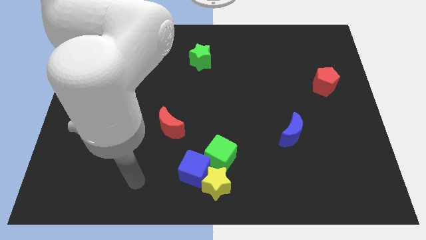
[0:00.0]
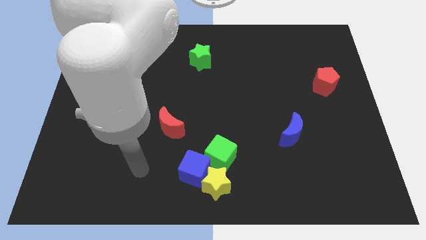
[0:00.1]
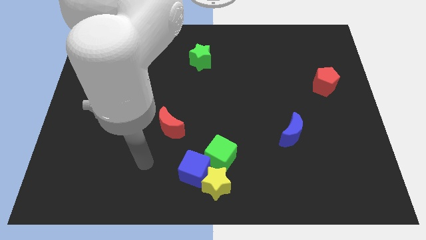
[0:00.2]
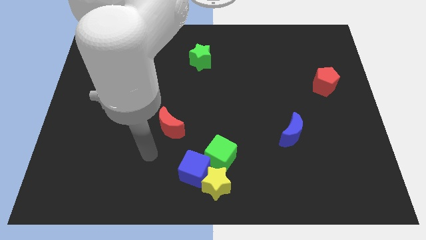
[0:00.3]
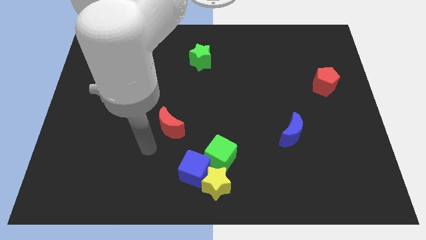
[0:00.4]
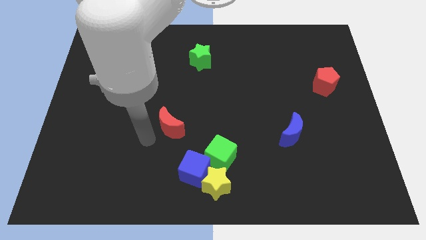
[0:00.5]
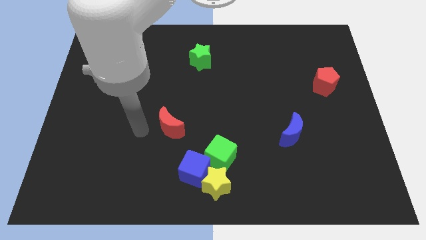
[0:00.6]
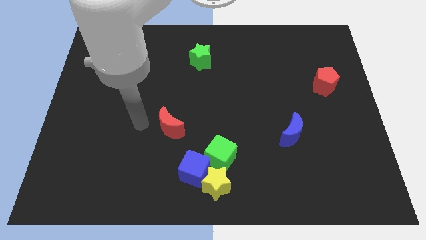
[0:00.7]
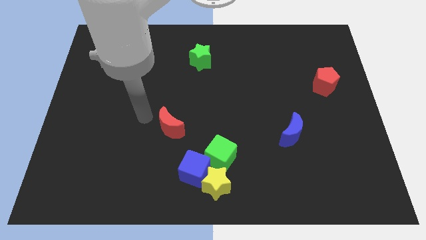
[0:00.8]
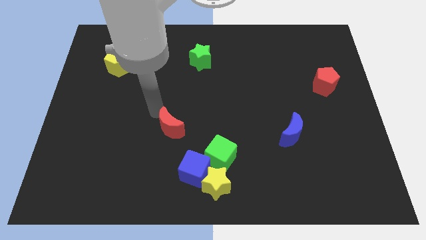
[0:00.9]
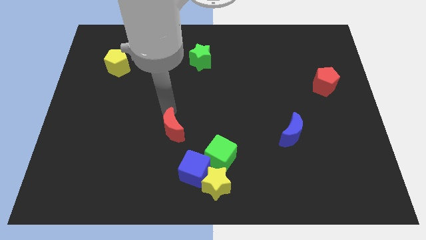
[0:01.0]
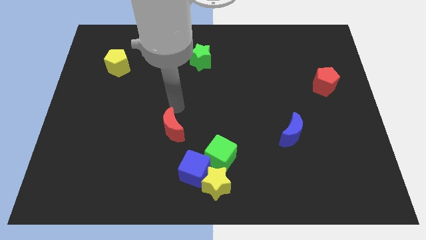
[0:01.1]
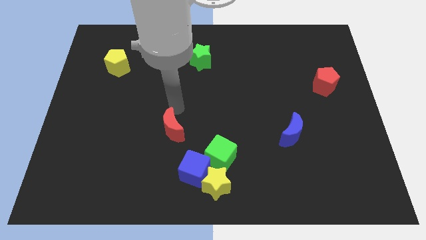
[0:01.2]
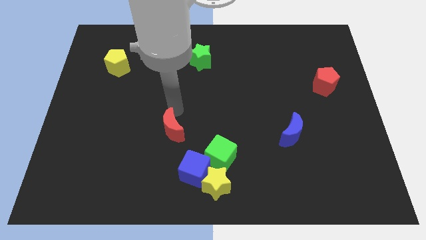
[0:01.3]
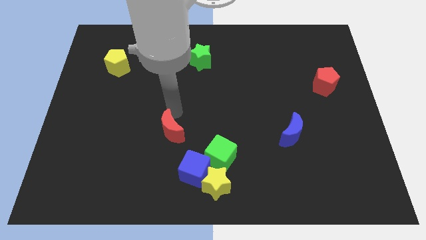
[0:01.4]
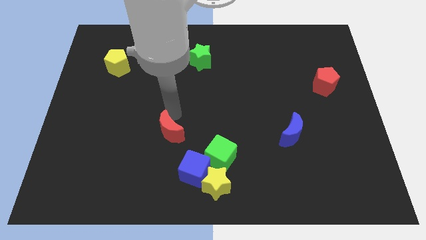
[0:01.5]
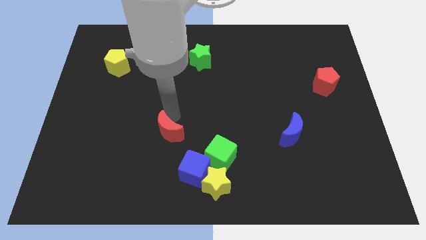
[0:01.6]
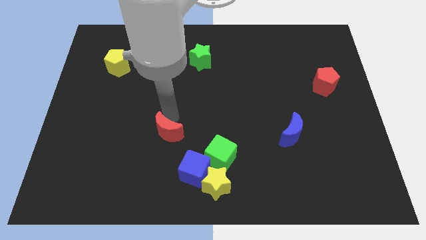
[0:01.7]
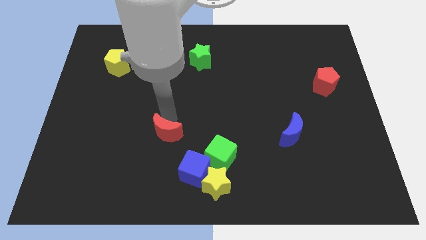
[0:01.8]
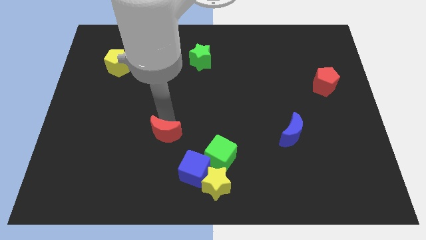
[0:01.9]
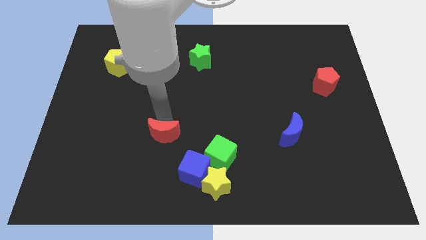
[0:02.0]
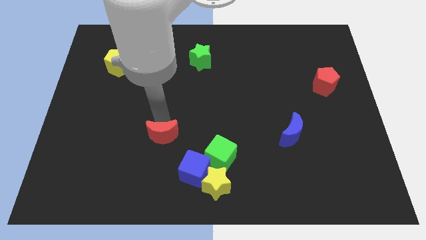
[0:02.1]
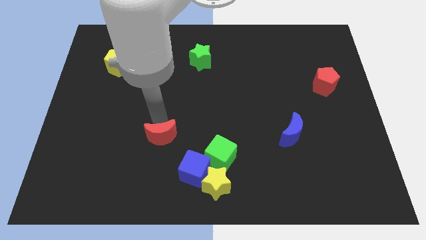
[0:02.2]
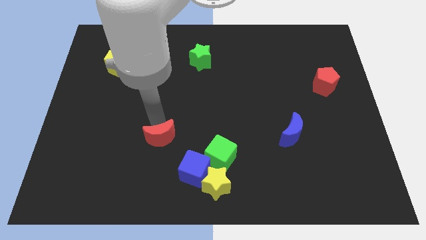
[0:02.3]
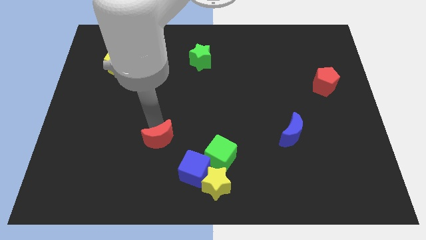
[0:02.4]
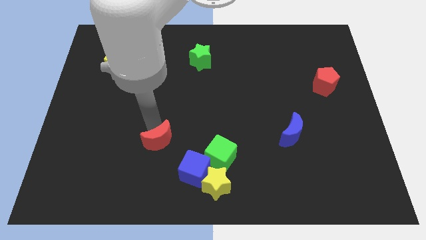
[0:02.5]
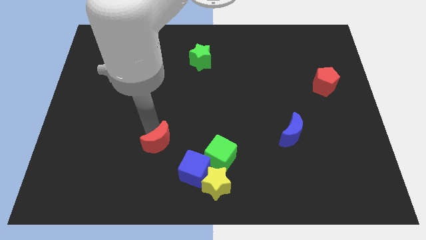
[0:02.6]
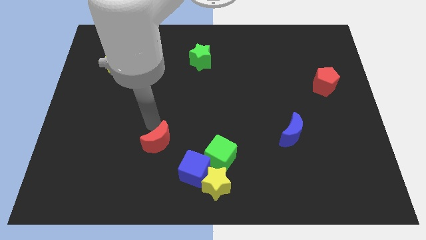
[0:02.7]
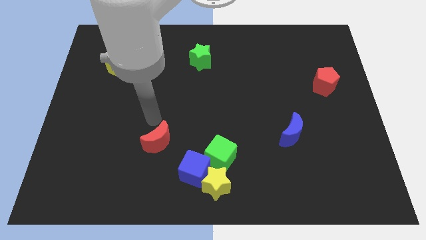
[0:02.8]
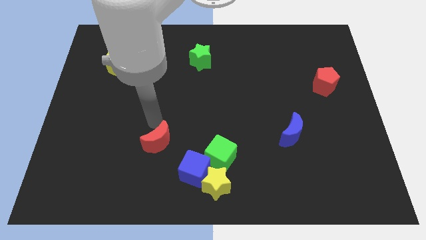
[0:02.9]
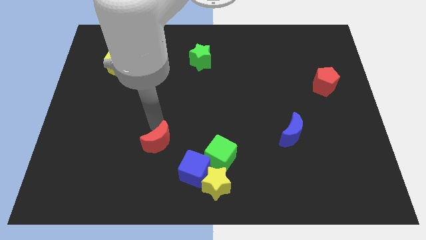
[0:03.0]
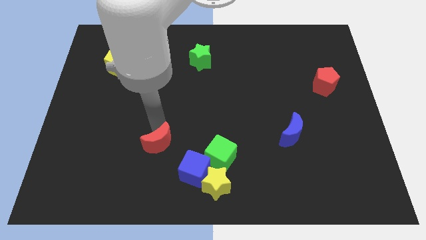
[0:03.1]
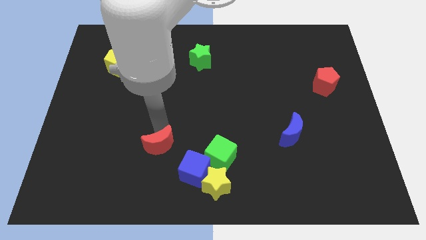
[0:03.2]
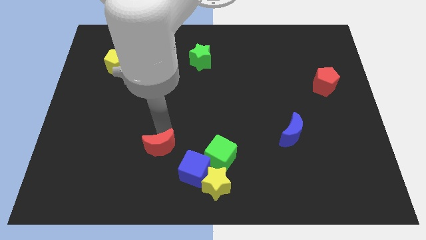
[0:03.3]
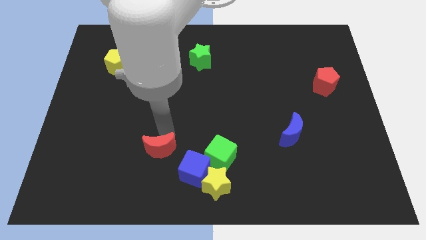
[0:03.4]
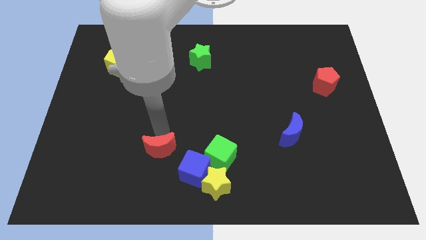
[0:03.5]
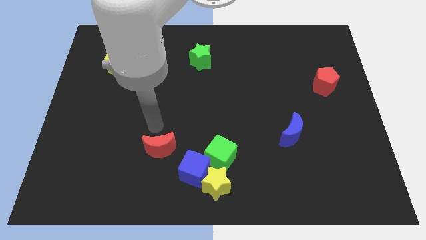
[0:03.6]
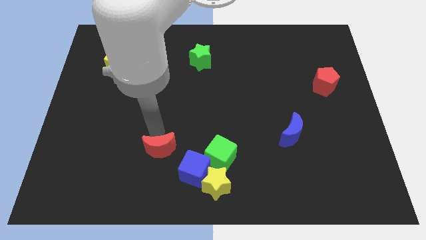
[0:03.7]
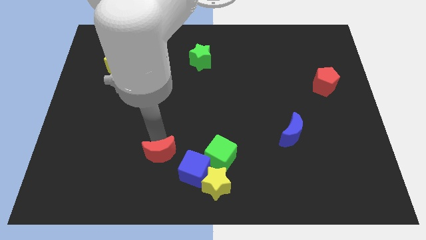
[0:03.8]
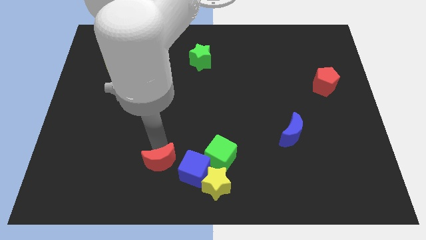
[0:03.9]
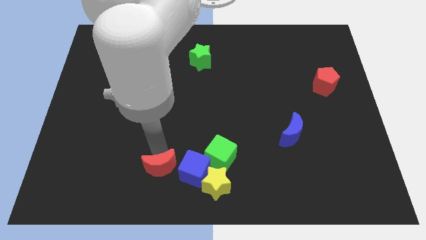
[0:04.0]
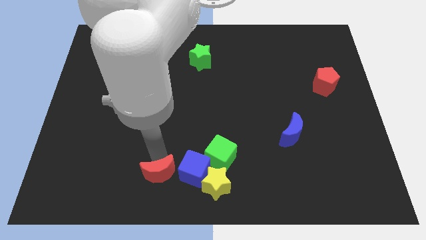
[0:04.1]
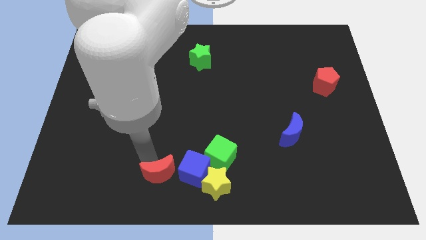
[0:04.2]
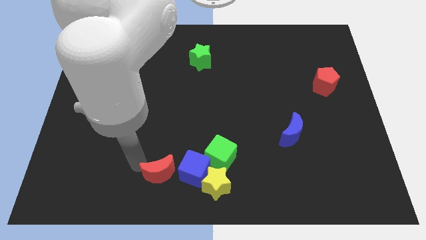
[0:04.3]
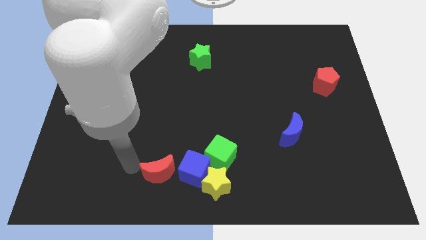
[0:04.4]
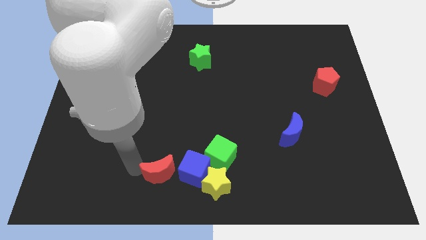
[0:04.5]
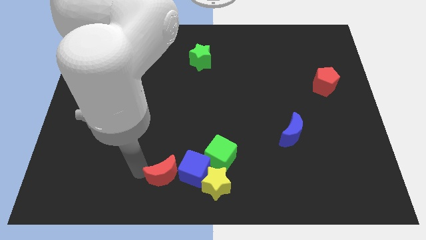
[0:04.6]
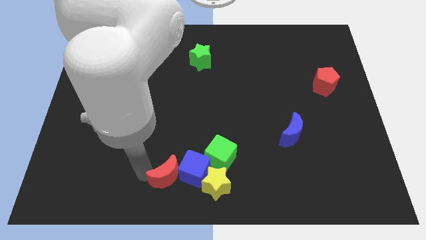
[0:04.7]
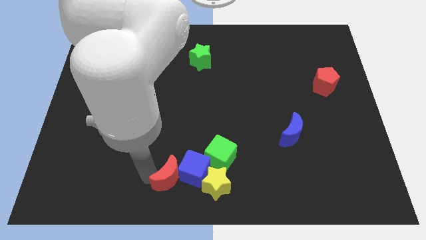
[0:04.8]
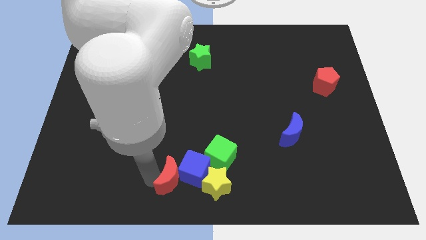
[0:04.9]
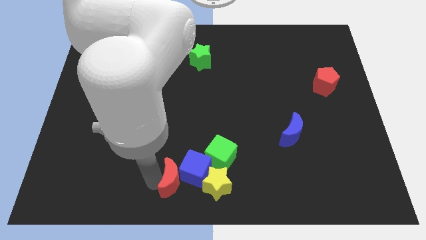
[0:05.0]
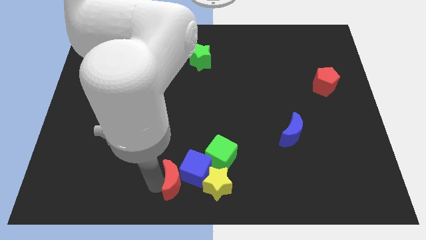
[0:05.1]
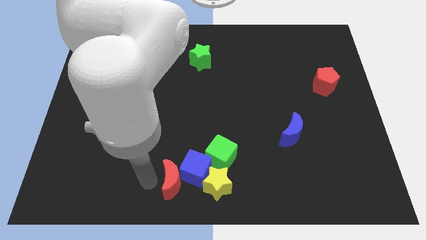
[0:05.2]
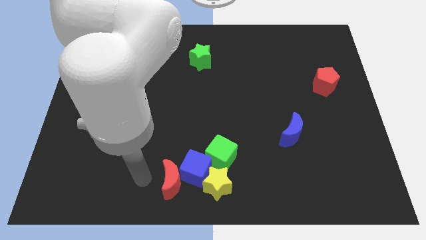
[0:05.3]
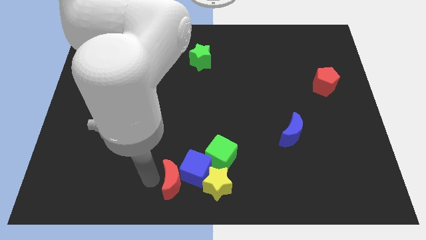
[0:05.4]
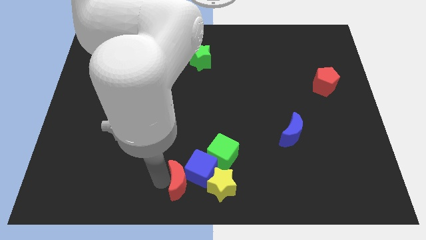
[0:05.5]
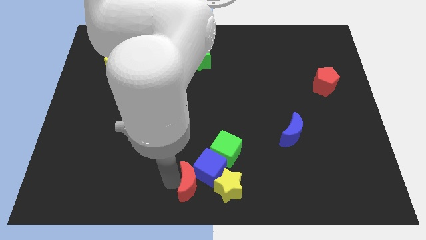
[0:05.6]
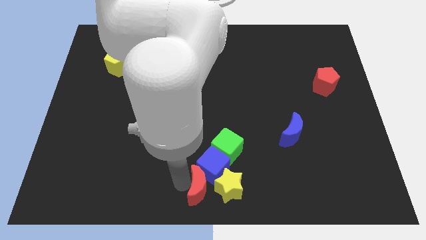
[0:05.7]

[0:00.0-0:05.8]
put the red moon close to the yellow star

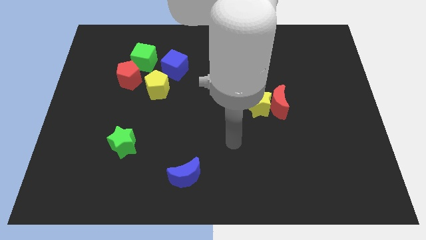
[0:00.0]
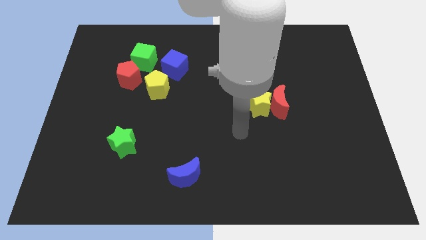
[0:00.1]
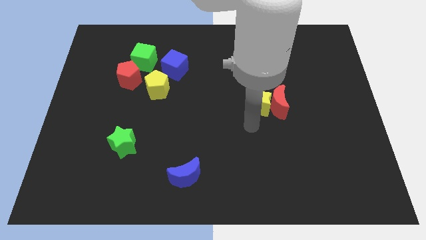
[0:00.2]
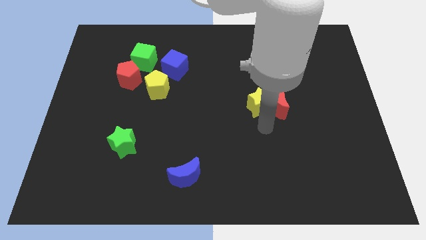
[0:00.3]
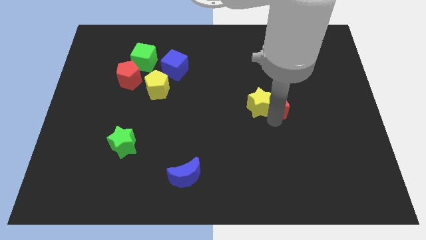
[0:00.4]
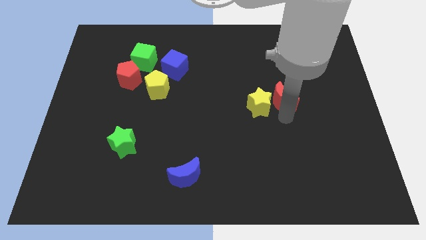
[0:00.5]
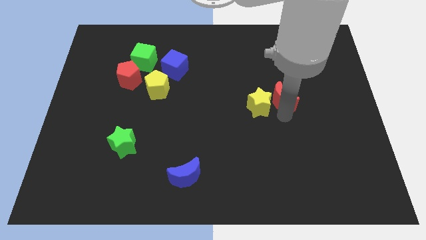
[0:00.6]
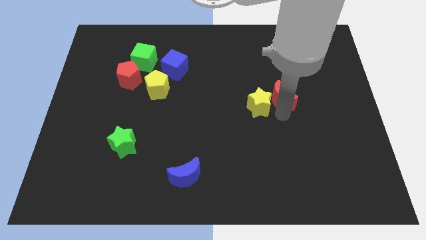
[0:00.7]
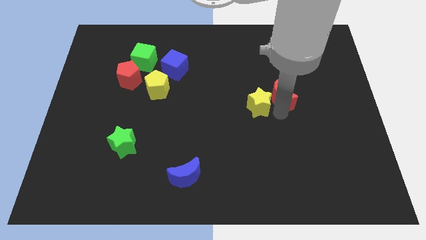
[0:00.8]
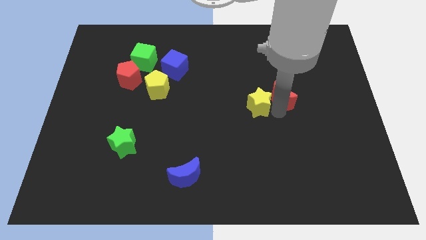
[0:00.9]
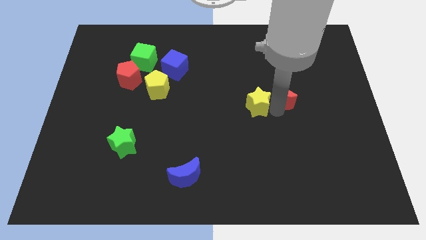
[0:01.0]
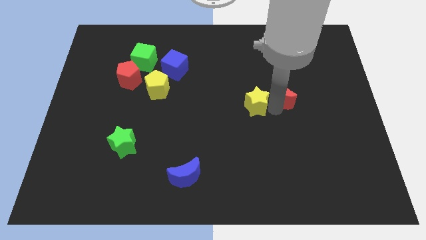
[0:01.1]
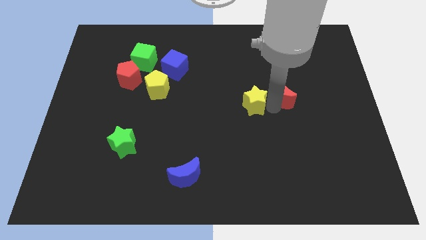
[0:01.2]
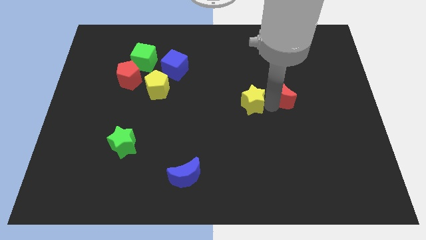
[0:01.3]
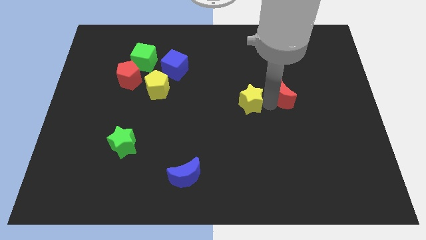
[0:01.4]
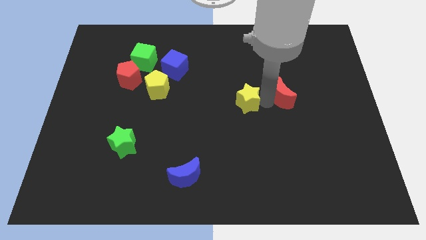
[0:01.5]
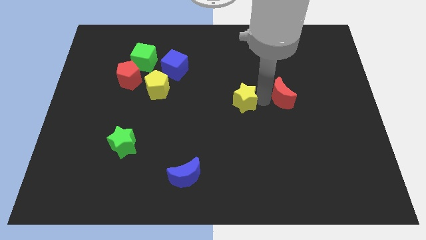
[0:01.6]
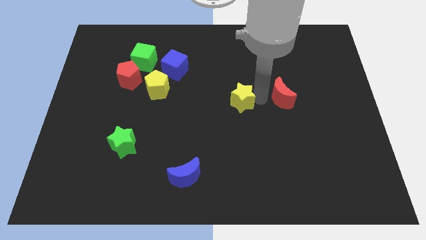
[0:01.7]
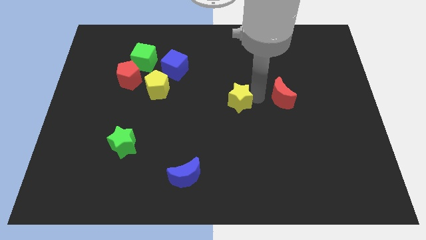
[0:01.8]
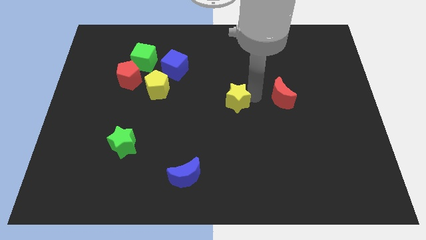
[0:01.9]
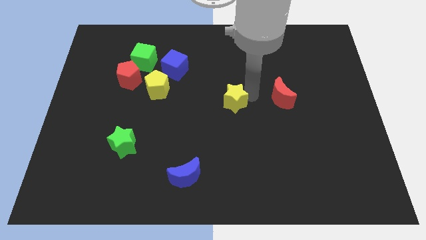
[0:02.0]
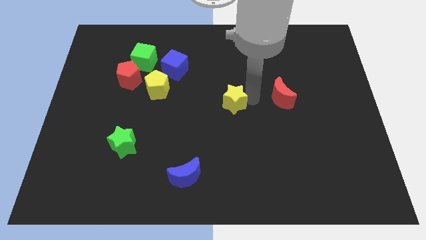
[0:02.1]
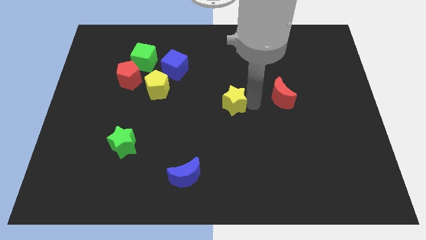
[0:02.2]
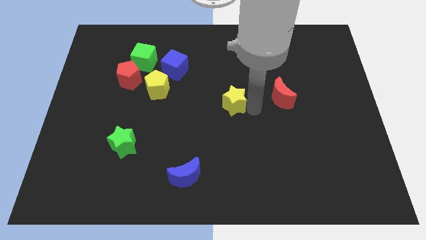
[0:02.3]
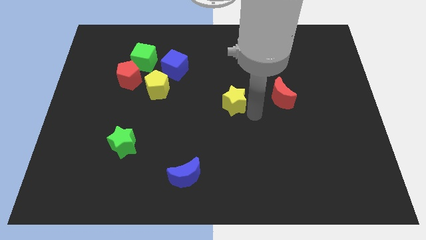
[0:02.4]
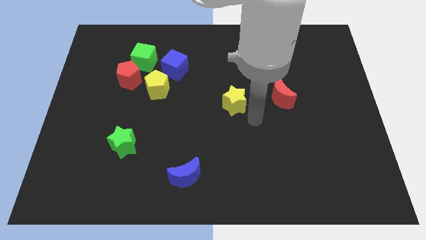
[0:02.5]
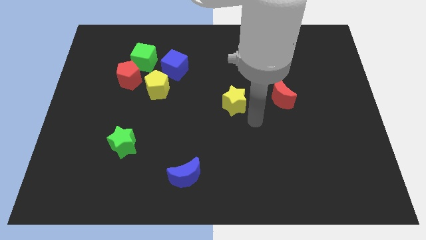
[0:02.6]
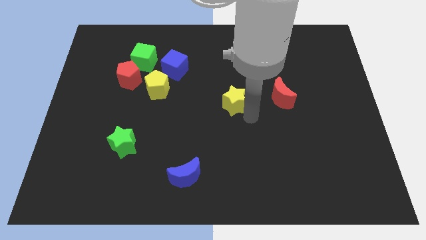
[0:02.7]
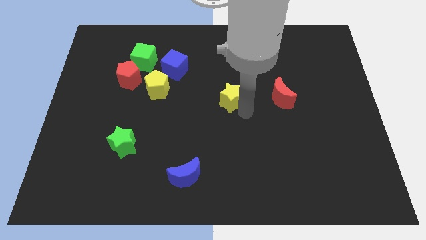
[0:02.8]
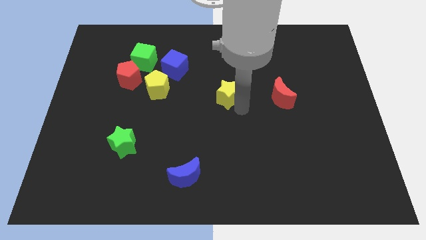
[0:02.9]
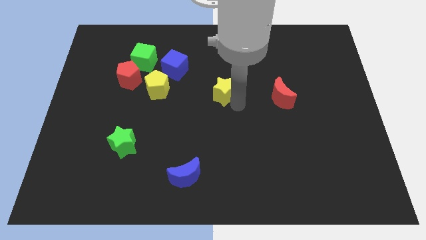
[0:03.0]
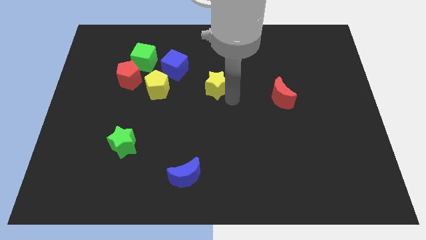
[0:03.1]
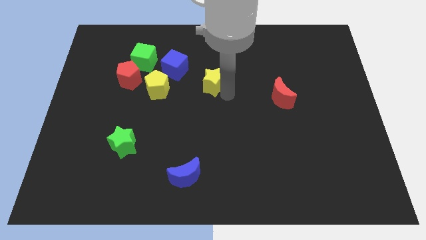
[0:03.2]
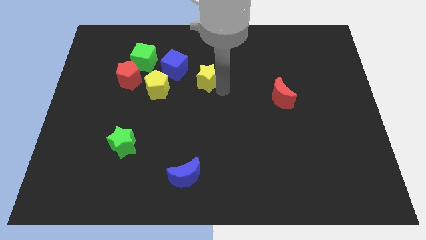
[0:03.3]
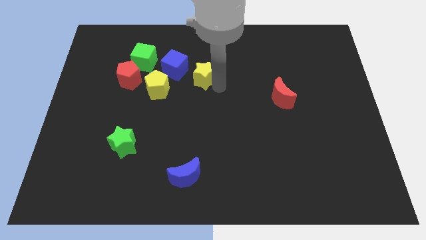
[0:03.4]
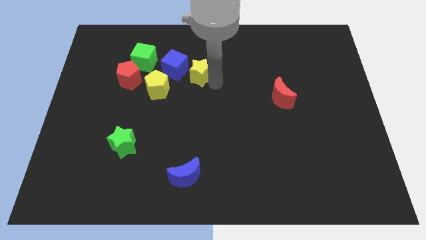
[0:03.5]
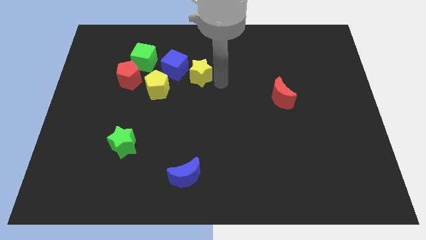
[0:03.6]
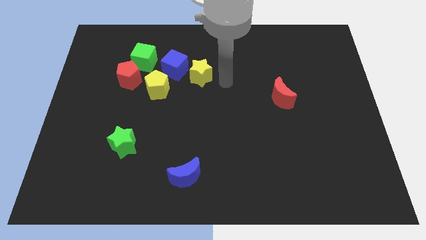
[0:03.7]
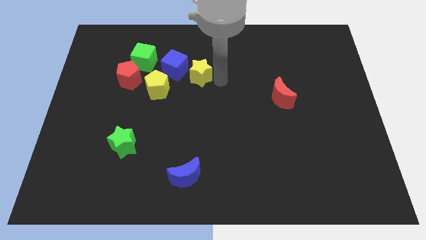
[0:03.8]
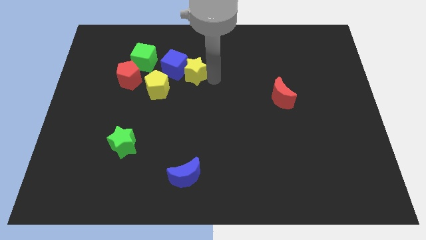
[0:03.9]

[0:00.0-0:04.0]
slide the yellow star next to the blue cube
